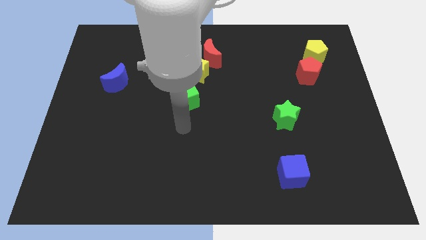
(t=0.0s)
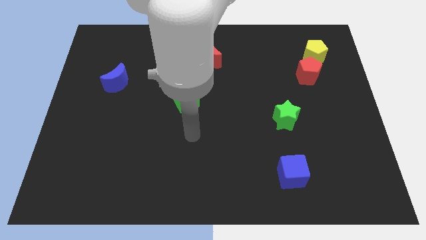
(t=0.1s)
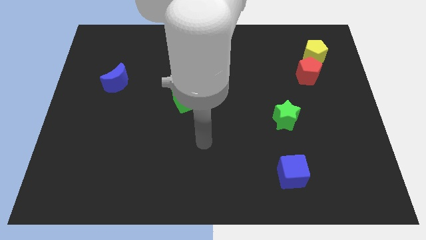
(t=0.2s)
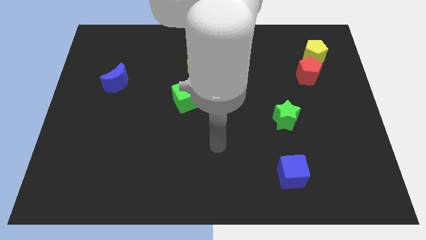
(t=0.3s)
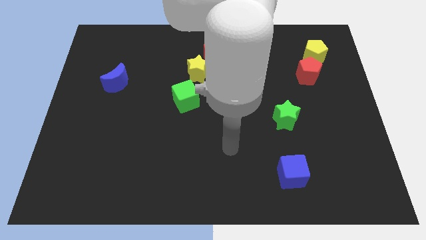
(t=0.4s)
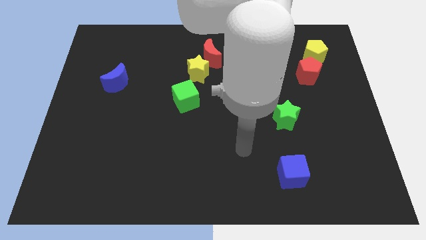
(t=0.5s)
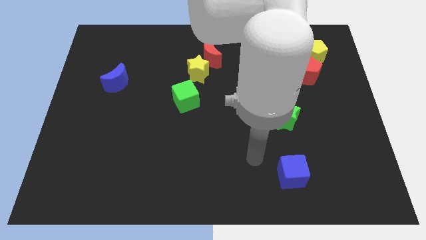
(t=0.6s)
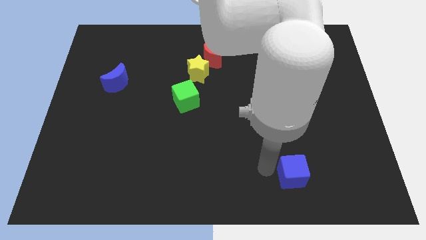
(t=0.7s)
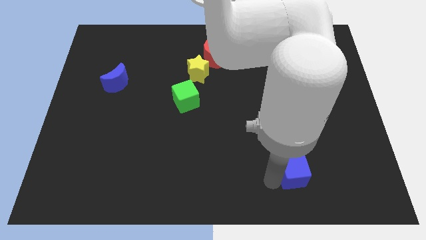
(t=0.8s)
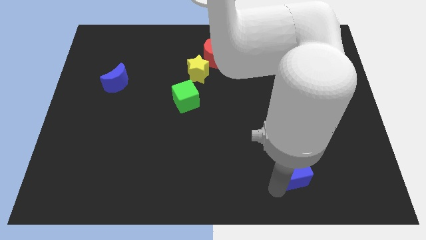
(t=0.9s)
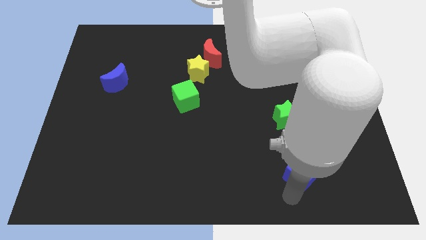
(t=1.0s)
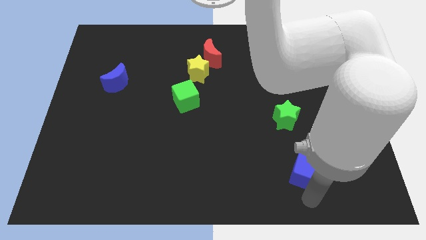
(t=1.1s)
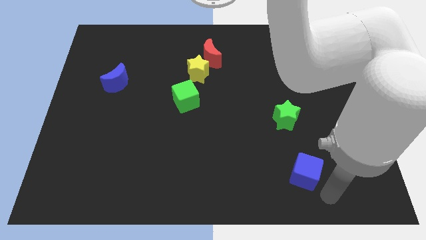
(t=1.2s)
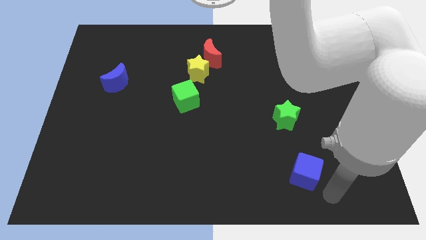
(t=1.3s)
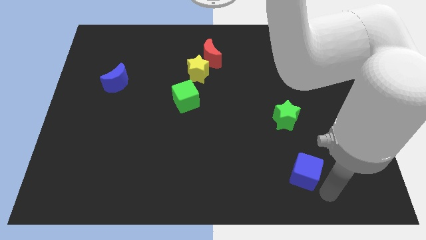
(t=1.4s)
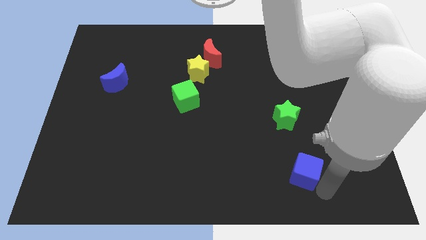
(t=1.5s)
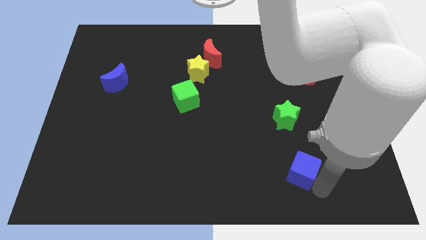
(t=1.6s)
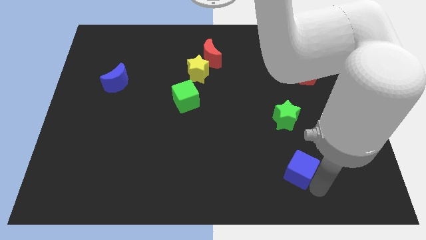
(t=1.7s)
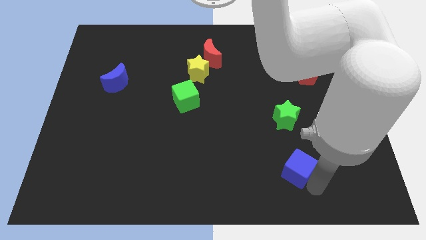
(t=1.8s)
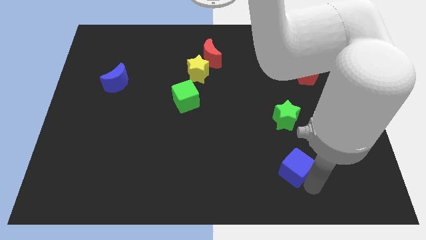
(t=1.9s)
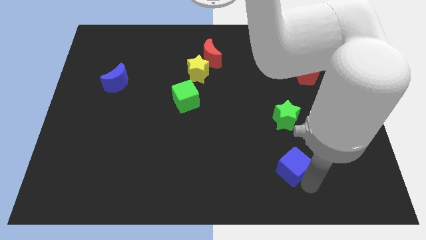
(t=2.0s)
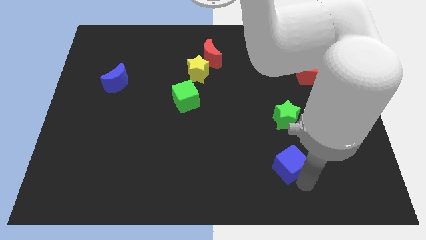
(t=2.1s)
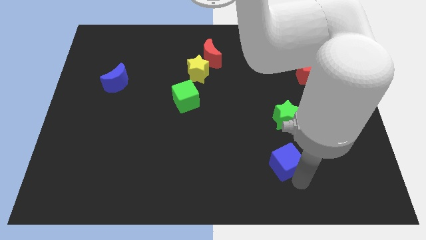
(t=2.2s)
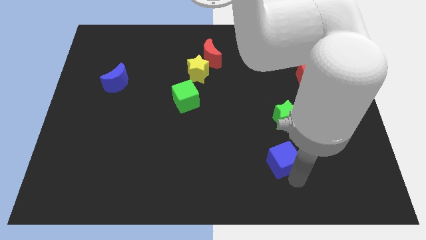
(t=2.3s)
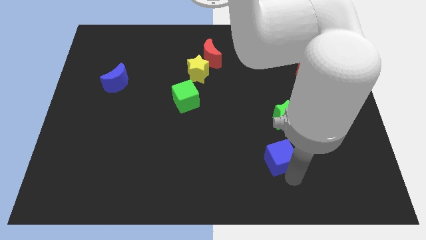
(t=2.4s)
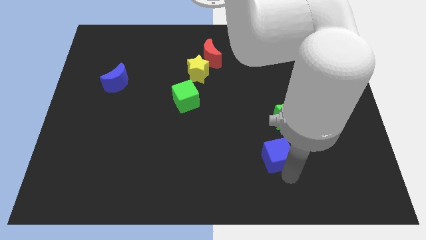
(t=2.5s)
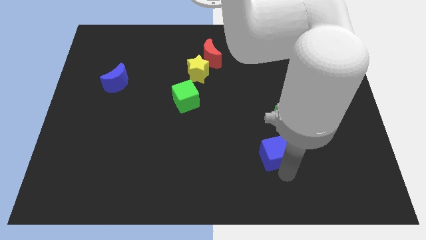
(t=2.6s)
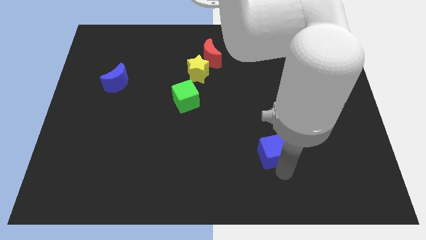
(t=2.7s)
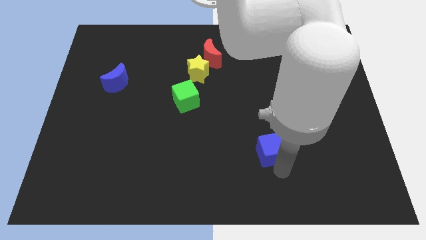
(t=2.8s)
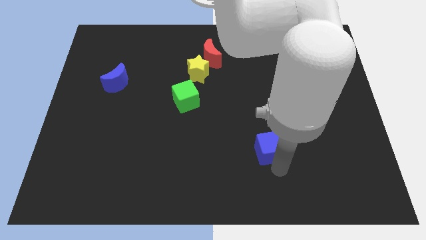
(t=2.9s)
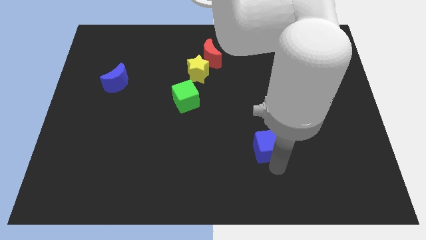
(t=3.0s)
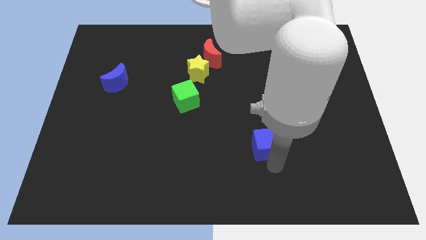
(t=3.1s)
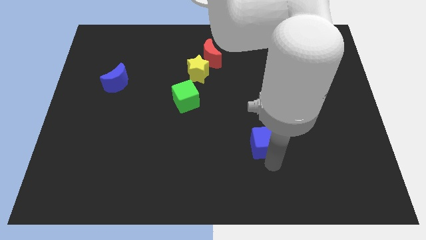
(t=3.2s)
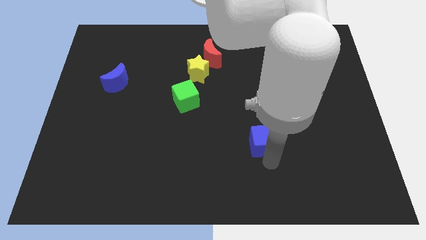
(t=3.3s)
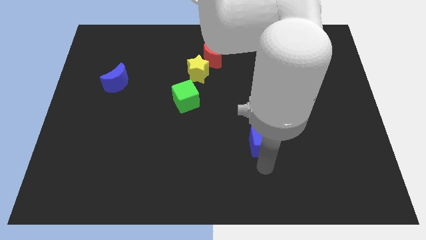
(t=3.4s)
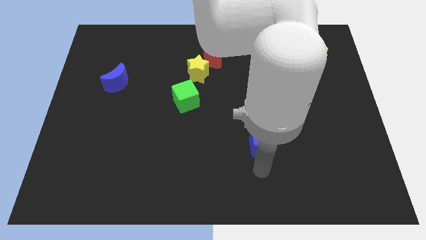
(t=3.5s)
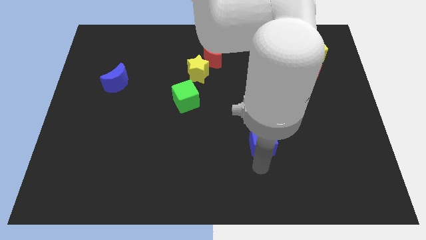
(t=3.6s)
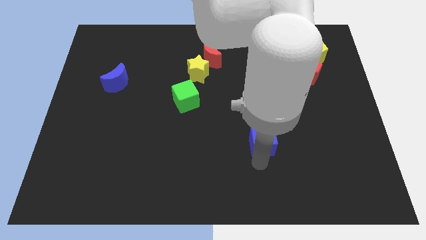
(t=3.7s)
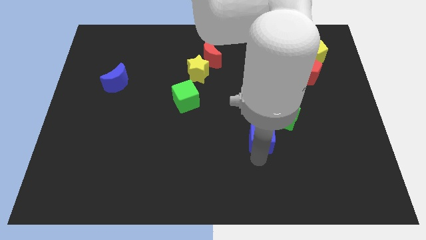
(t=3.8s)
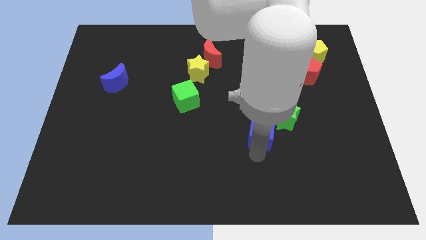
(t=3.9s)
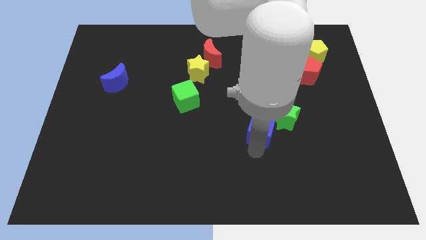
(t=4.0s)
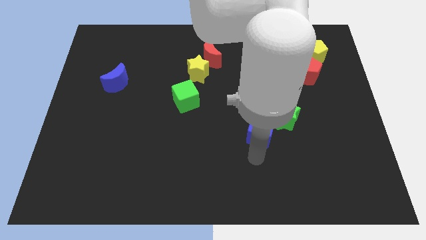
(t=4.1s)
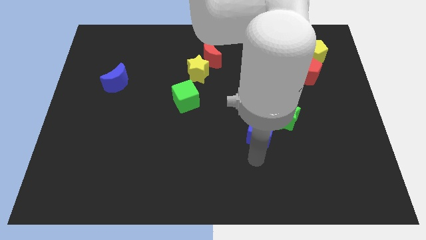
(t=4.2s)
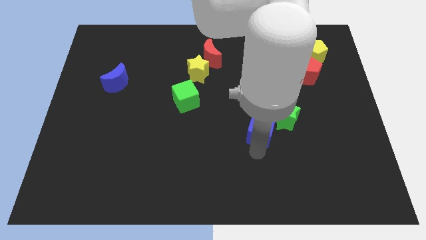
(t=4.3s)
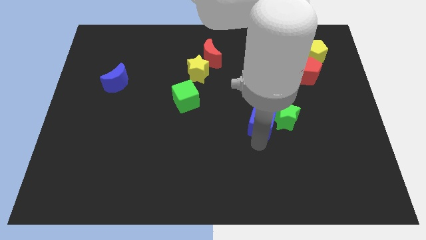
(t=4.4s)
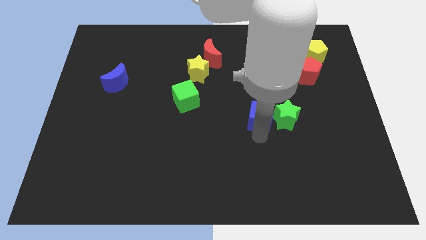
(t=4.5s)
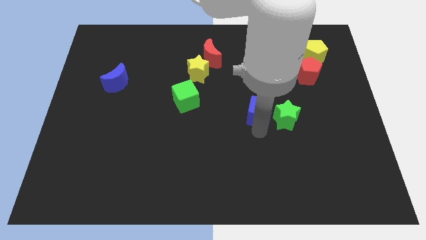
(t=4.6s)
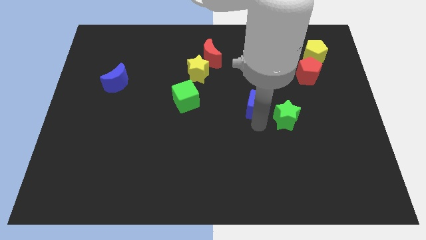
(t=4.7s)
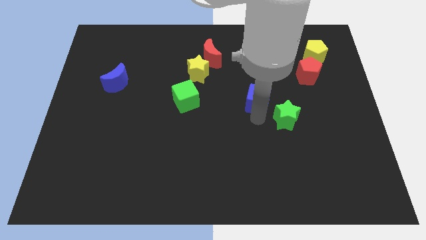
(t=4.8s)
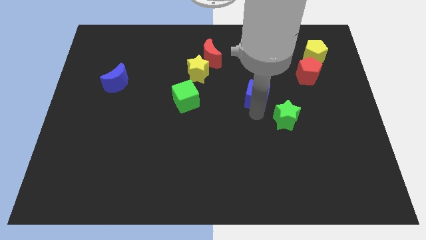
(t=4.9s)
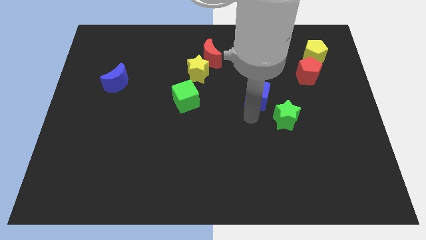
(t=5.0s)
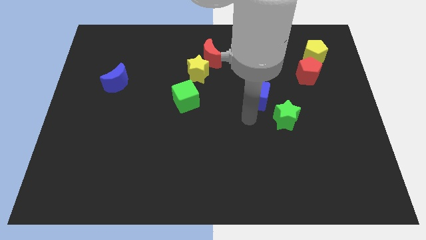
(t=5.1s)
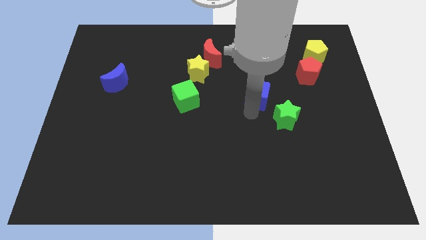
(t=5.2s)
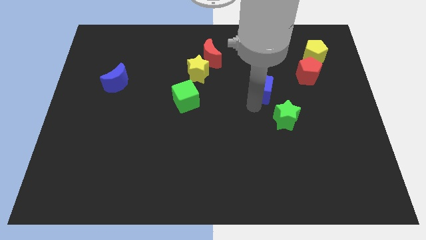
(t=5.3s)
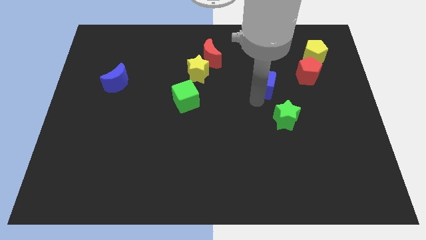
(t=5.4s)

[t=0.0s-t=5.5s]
slide the blue cube just left of the red pentagon

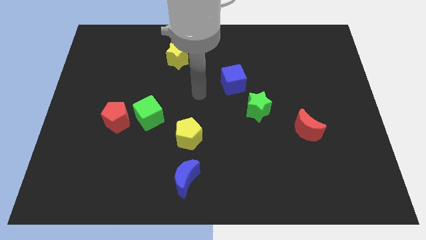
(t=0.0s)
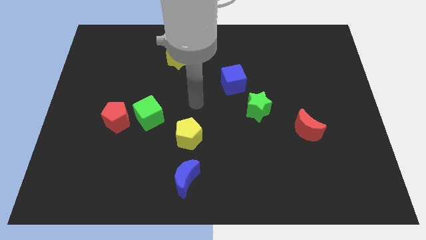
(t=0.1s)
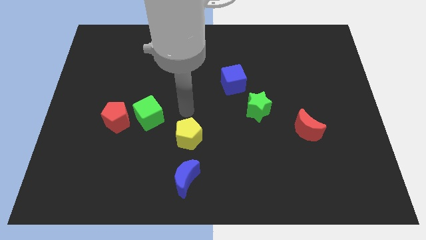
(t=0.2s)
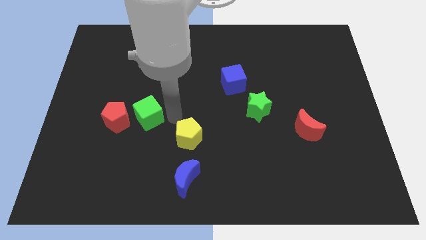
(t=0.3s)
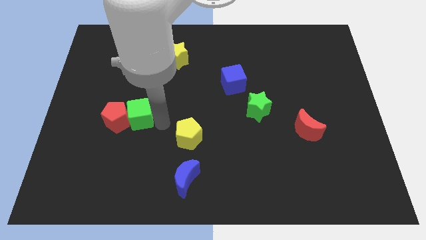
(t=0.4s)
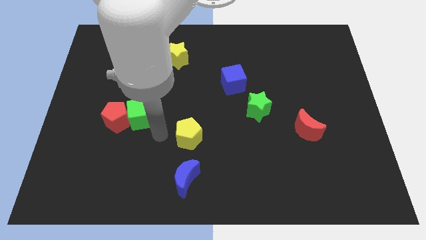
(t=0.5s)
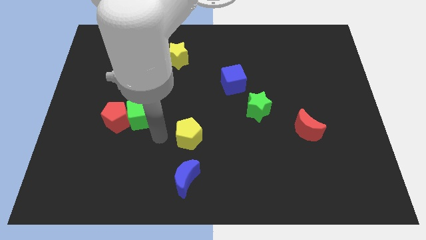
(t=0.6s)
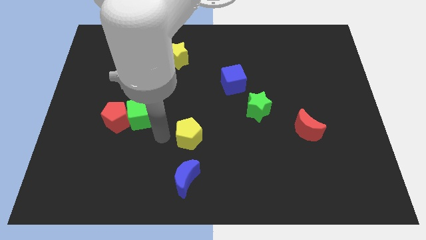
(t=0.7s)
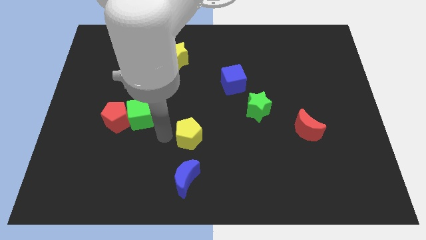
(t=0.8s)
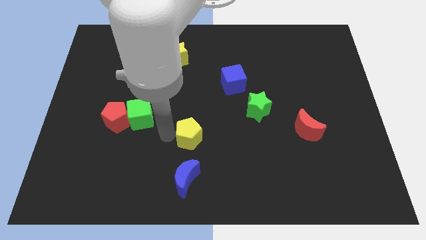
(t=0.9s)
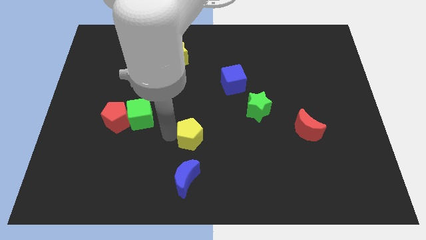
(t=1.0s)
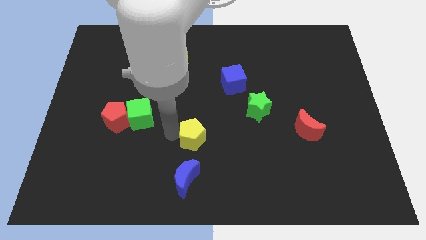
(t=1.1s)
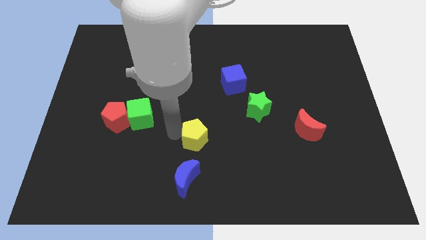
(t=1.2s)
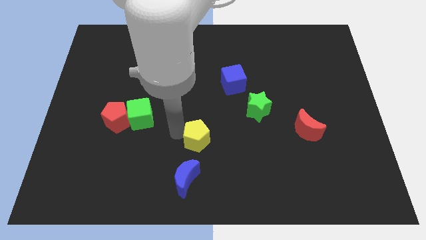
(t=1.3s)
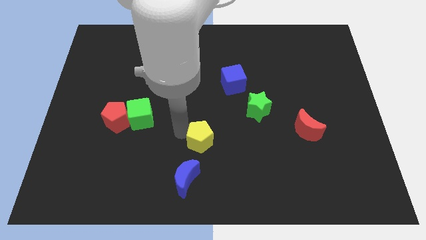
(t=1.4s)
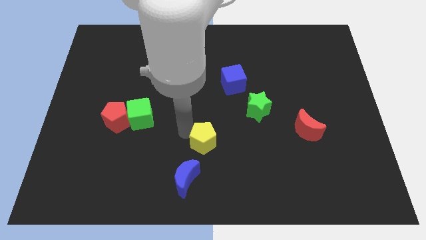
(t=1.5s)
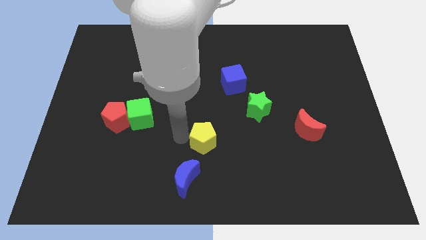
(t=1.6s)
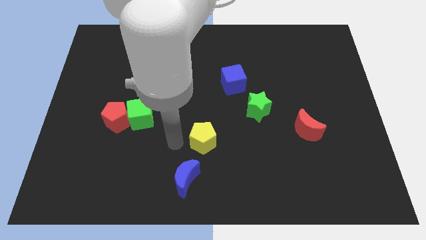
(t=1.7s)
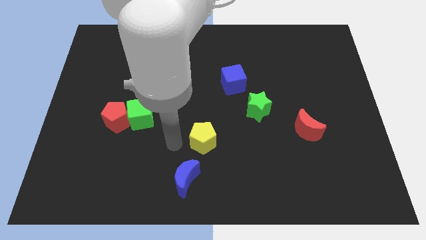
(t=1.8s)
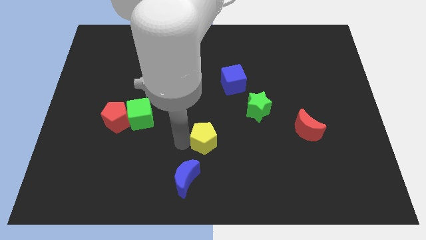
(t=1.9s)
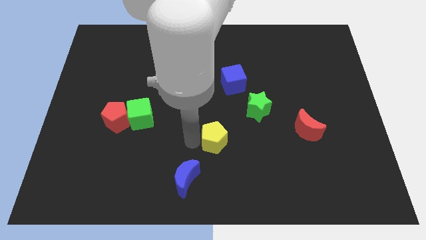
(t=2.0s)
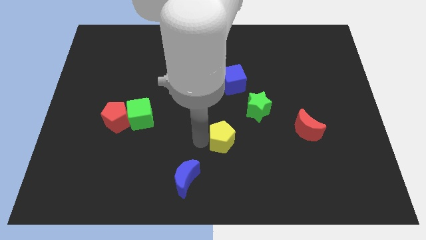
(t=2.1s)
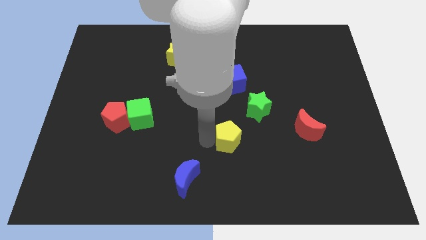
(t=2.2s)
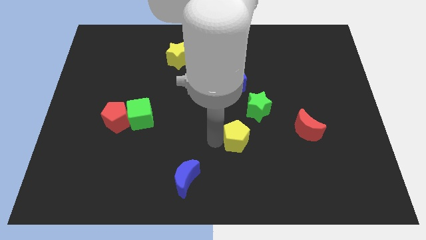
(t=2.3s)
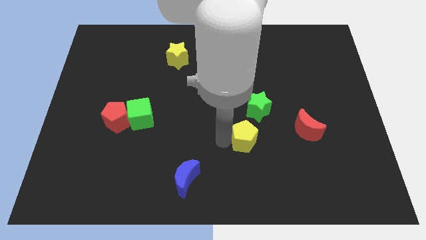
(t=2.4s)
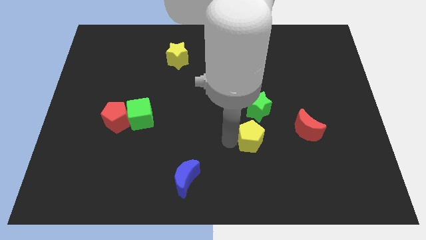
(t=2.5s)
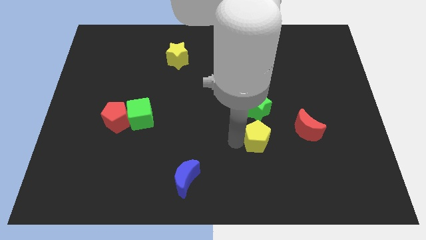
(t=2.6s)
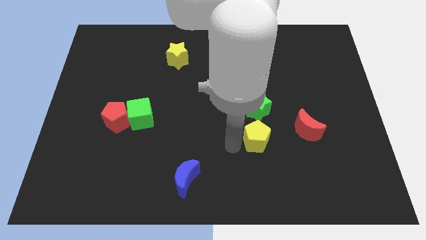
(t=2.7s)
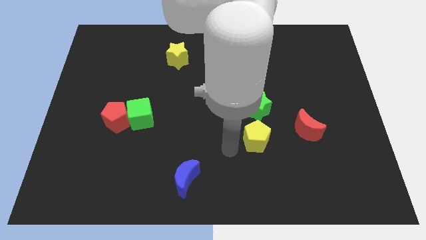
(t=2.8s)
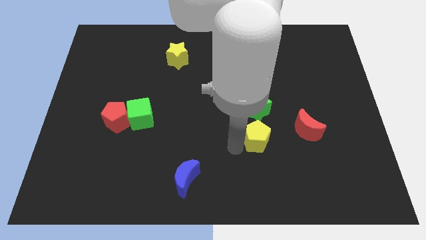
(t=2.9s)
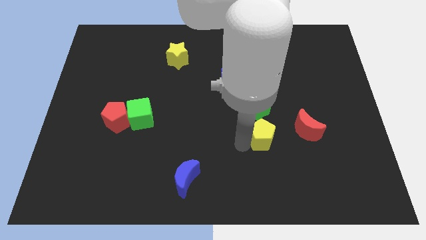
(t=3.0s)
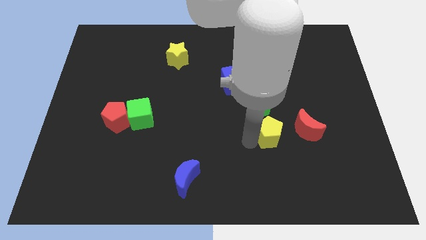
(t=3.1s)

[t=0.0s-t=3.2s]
push the yellow pentagon to the bottom right of the green star
